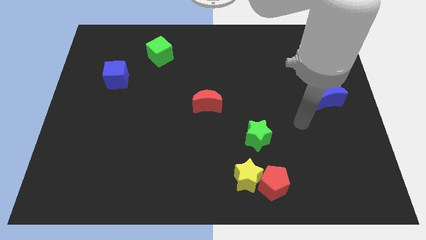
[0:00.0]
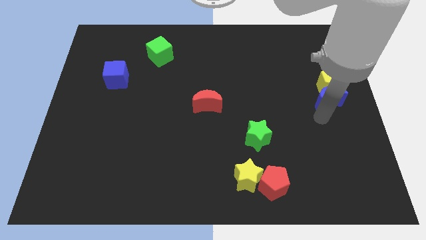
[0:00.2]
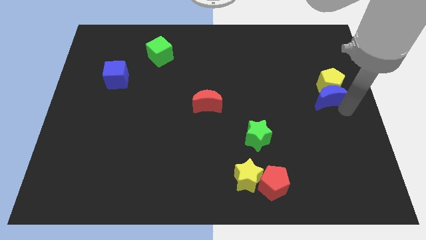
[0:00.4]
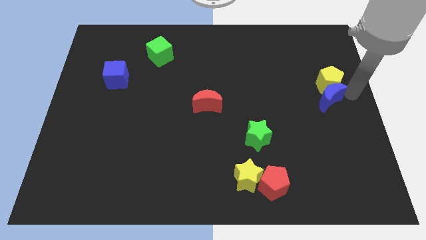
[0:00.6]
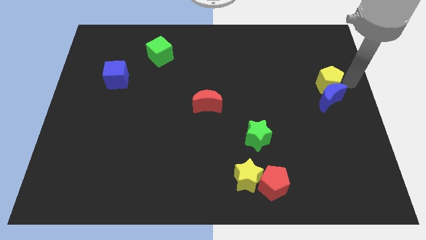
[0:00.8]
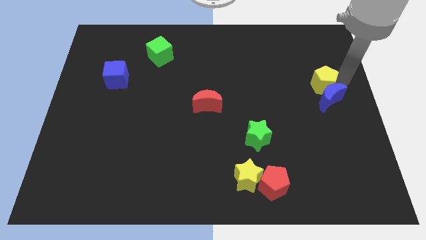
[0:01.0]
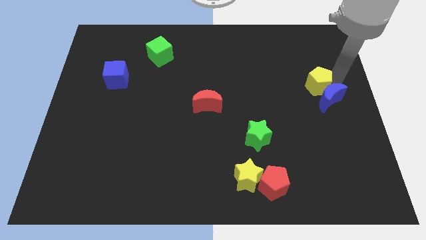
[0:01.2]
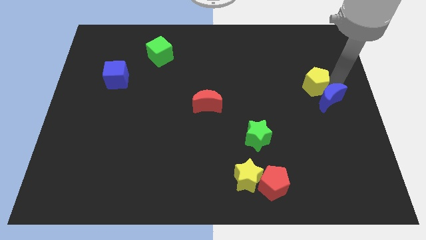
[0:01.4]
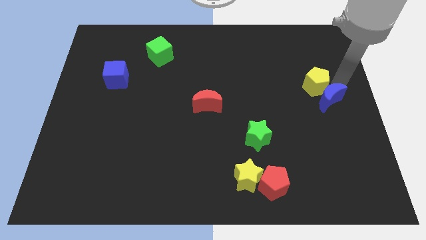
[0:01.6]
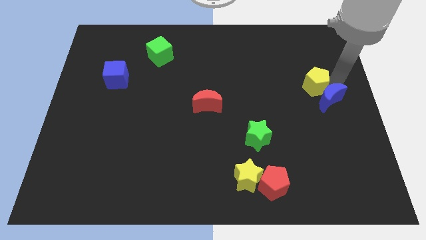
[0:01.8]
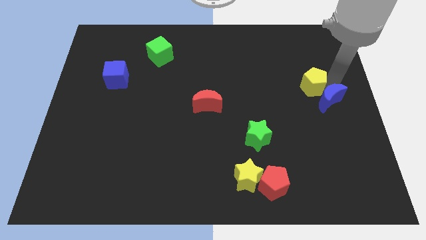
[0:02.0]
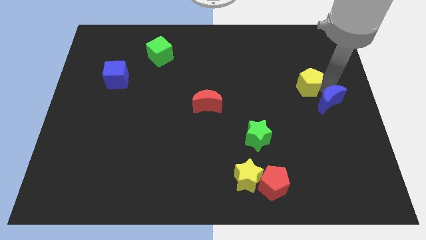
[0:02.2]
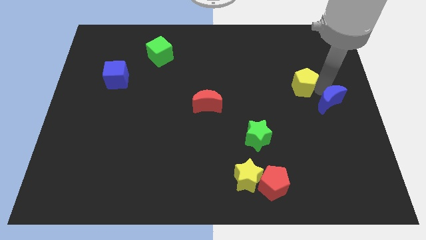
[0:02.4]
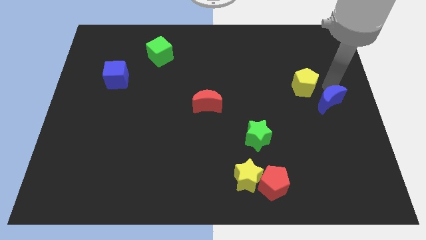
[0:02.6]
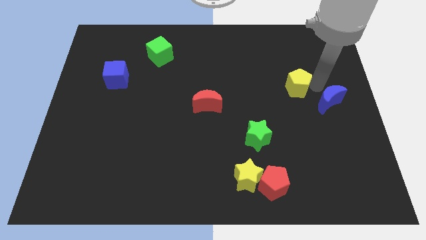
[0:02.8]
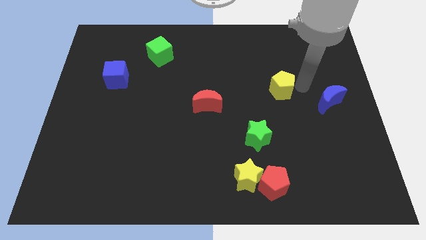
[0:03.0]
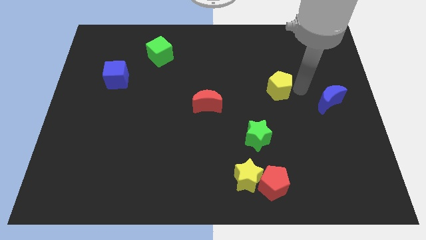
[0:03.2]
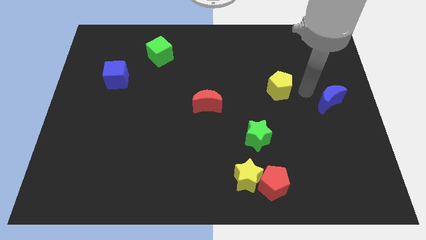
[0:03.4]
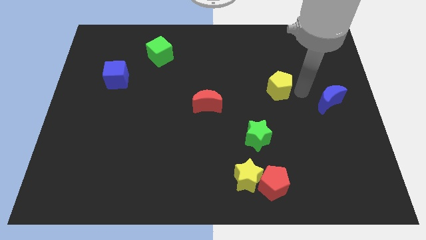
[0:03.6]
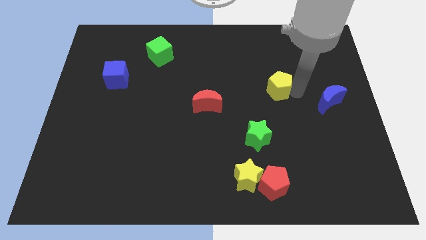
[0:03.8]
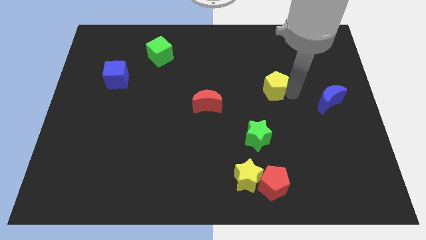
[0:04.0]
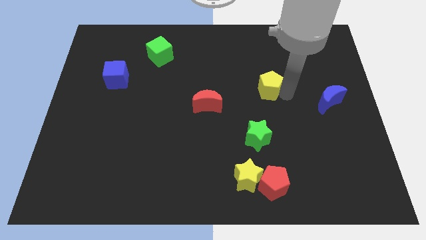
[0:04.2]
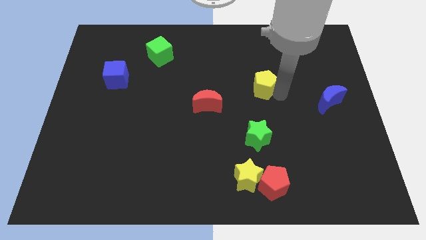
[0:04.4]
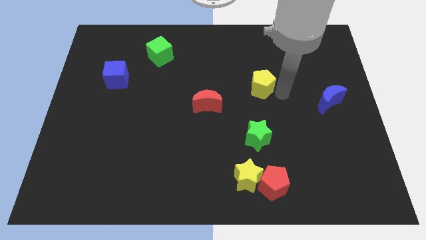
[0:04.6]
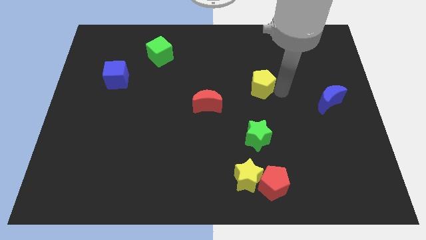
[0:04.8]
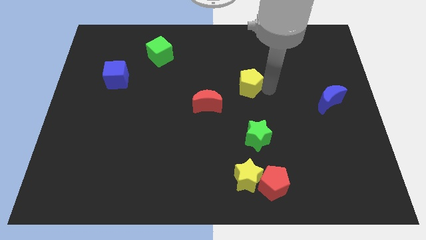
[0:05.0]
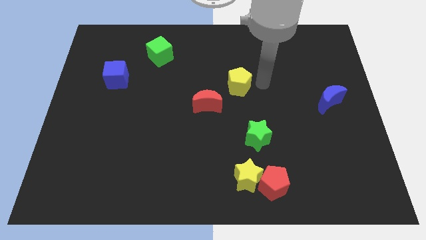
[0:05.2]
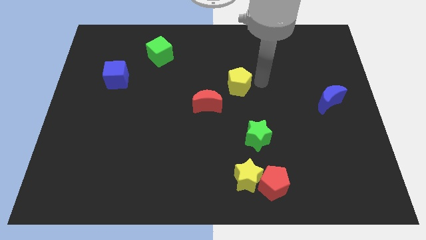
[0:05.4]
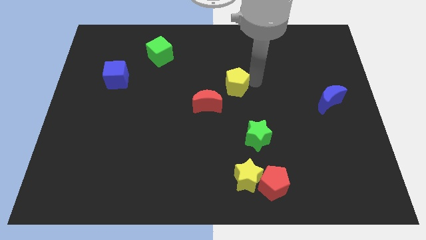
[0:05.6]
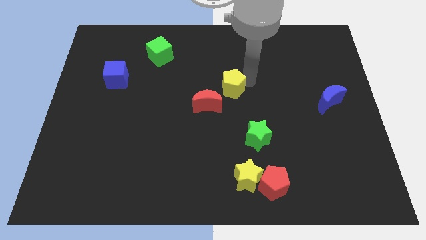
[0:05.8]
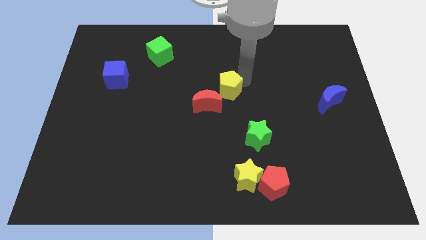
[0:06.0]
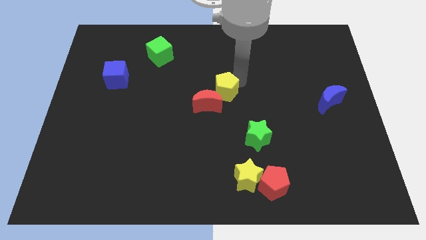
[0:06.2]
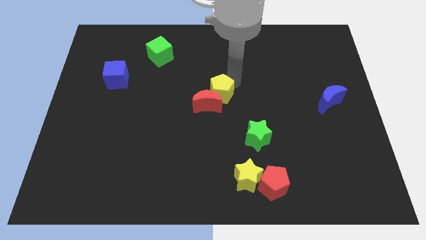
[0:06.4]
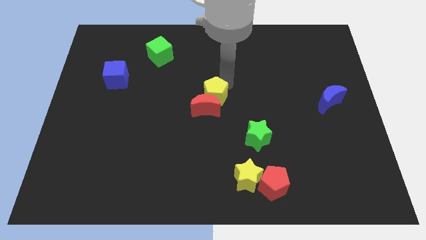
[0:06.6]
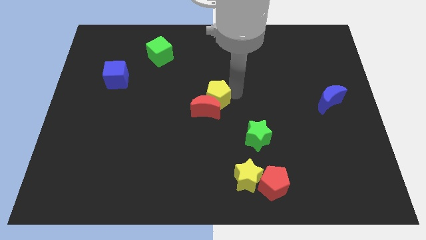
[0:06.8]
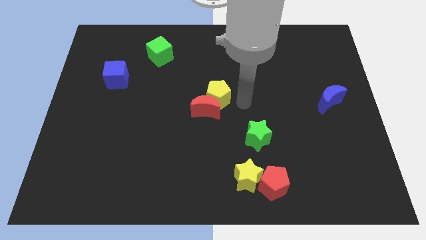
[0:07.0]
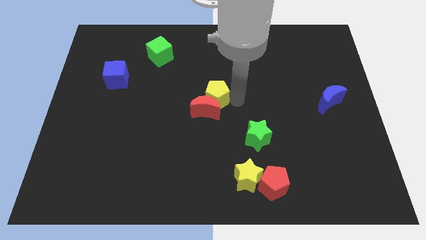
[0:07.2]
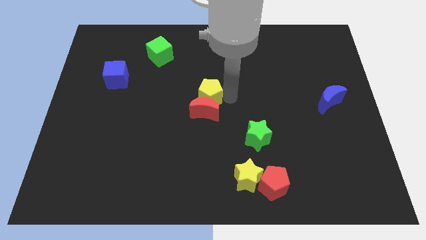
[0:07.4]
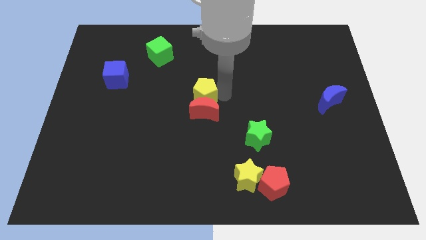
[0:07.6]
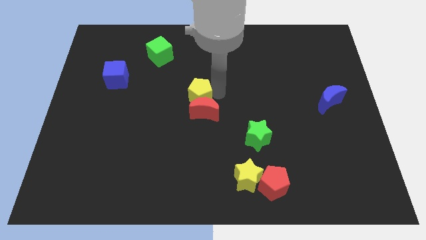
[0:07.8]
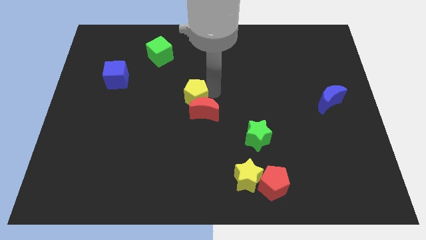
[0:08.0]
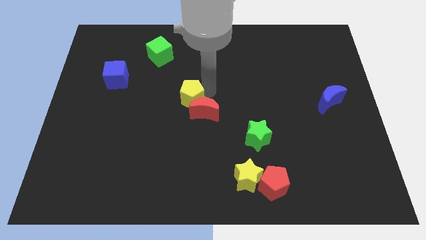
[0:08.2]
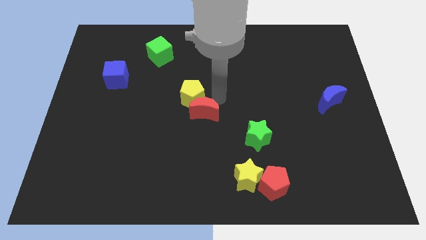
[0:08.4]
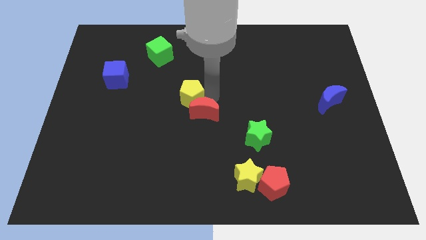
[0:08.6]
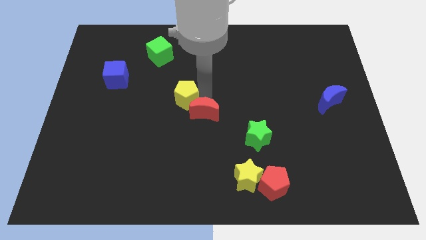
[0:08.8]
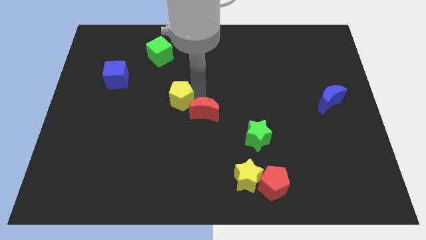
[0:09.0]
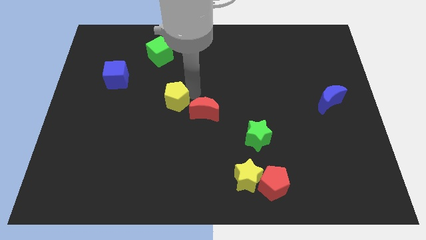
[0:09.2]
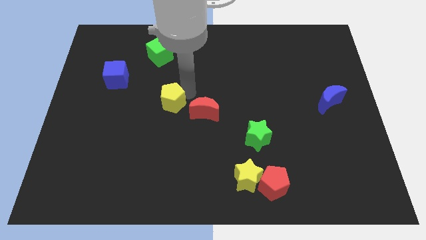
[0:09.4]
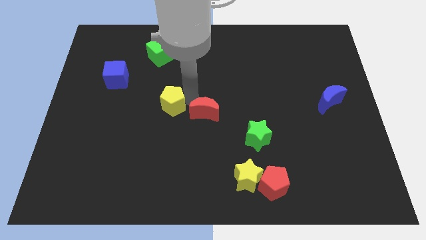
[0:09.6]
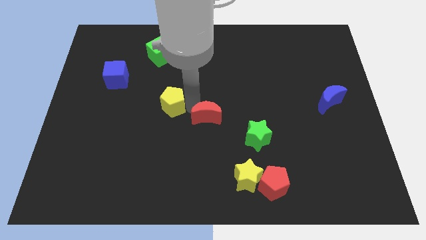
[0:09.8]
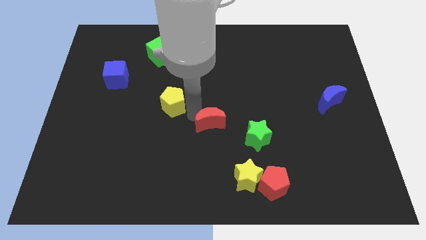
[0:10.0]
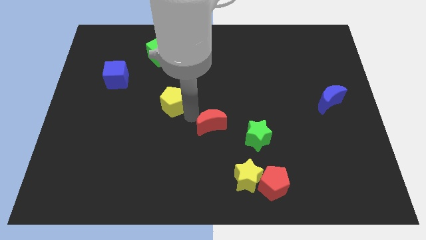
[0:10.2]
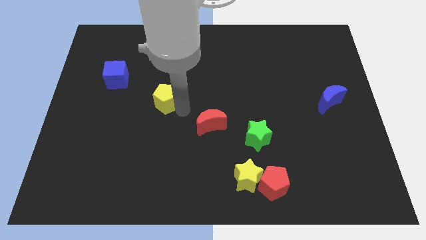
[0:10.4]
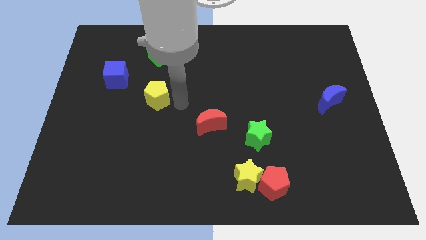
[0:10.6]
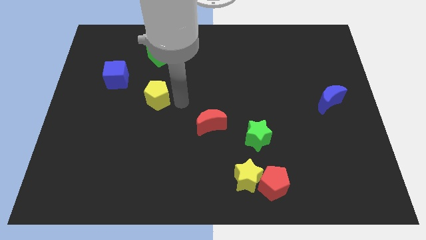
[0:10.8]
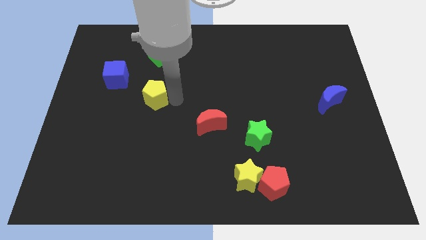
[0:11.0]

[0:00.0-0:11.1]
put the yellow pentagon to the bottom right side of the blue cube

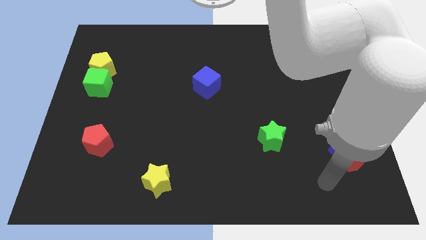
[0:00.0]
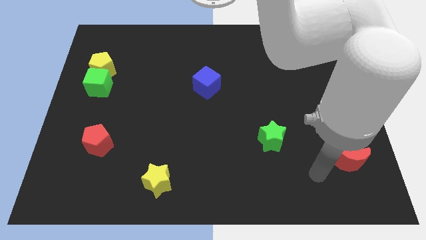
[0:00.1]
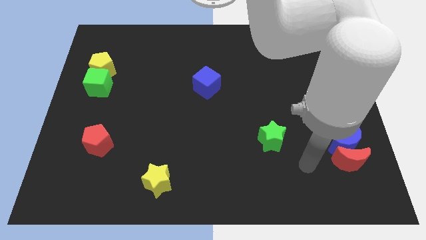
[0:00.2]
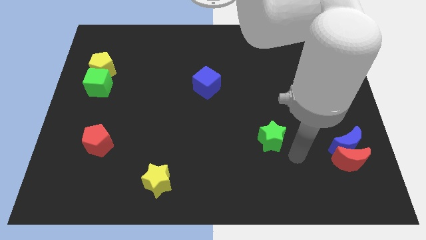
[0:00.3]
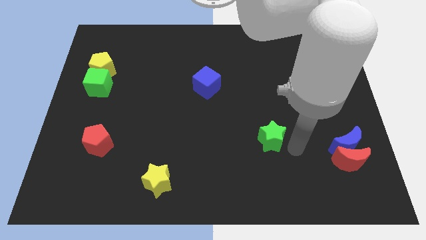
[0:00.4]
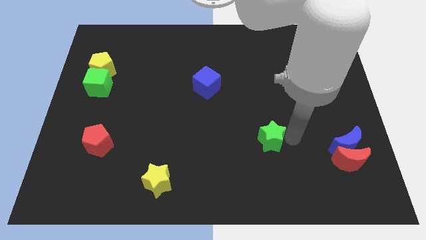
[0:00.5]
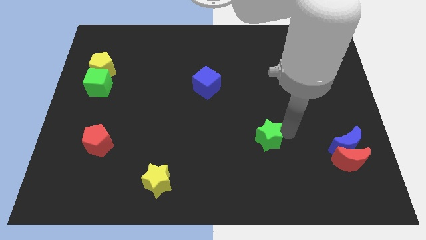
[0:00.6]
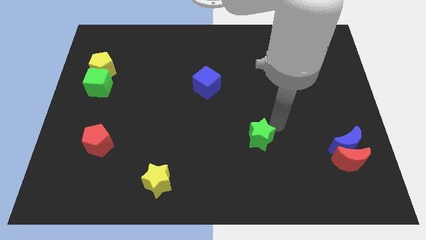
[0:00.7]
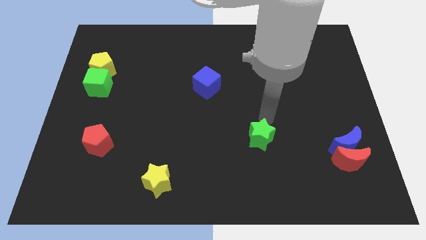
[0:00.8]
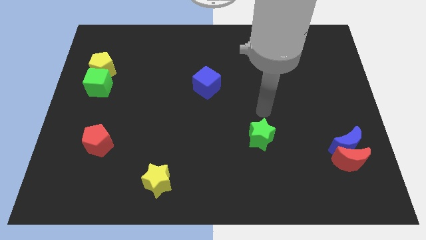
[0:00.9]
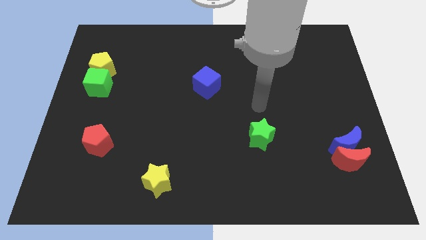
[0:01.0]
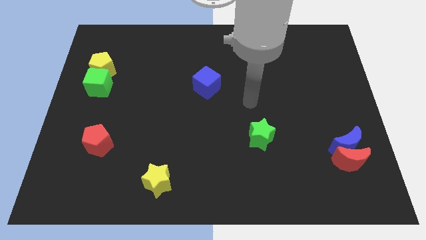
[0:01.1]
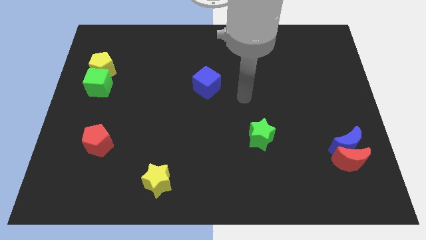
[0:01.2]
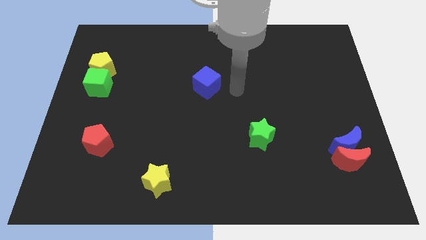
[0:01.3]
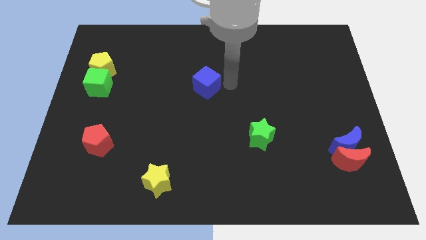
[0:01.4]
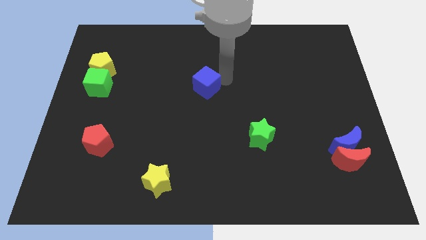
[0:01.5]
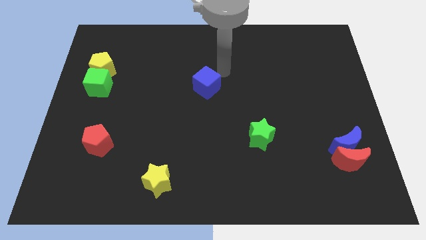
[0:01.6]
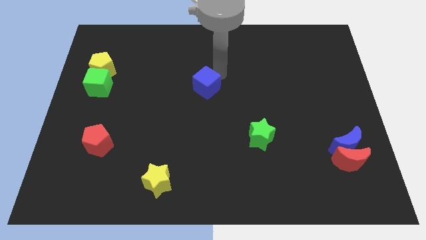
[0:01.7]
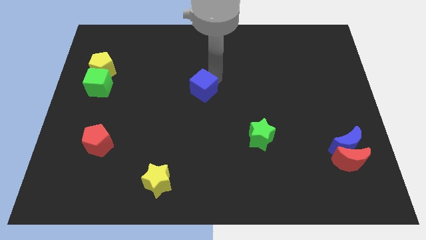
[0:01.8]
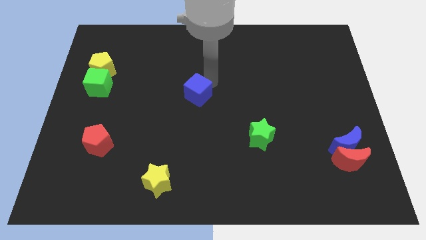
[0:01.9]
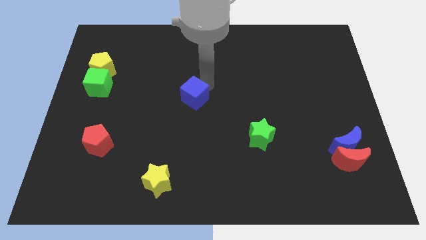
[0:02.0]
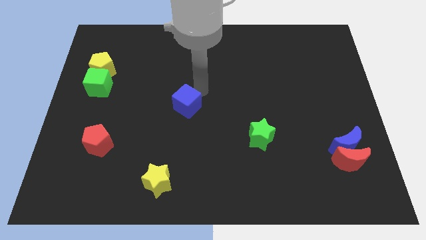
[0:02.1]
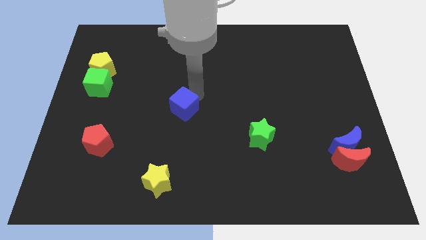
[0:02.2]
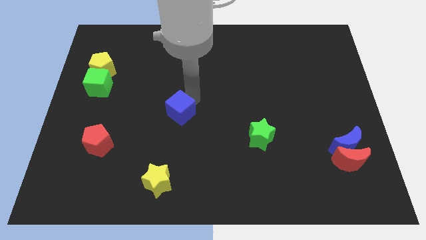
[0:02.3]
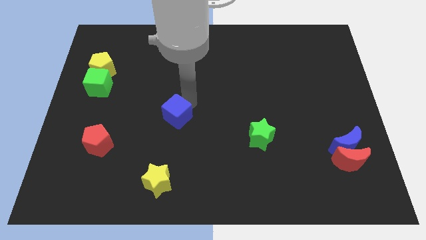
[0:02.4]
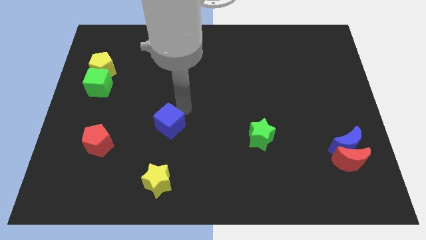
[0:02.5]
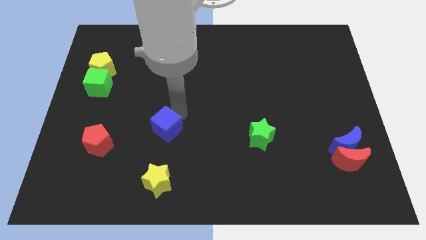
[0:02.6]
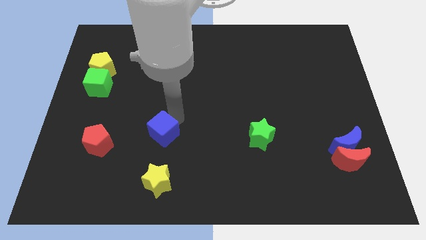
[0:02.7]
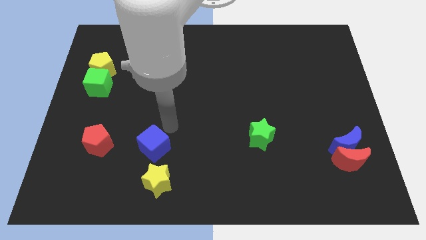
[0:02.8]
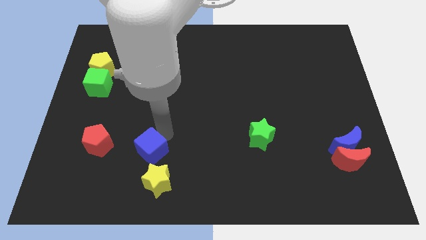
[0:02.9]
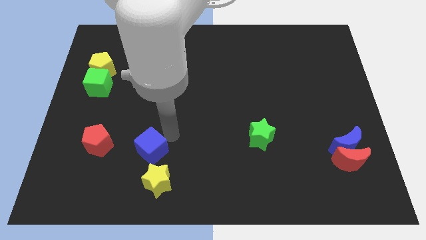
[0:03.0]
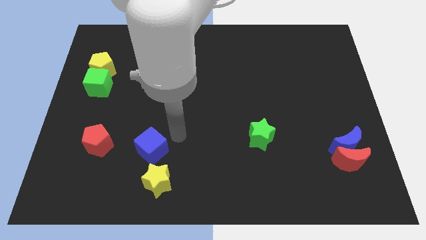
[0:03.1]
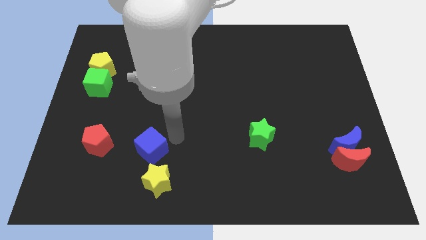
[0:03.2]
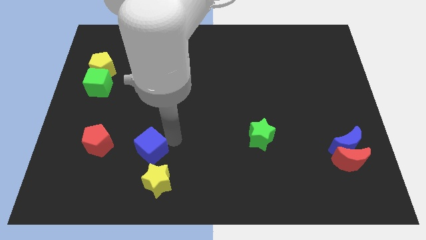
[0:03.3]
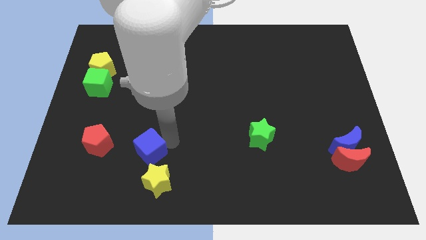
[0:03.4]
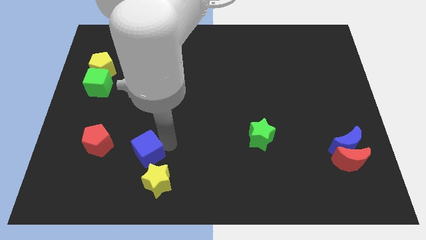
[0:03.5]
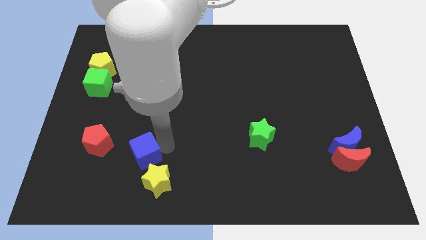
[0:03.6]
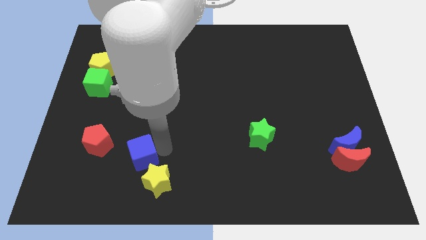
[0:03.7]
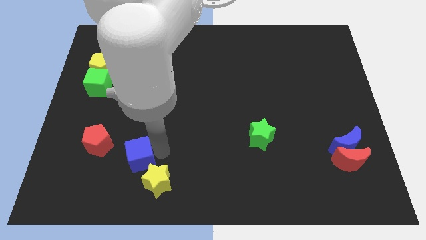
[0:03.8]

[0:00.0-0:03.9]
slide the blue cube to the bottom right side of the red pentagon
